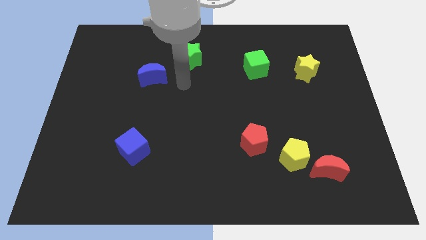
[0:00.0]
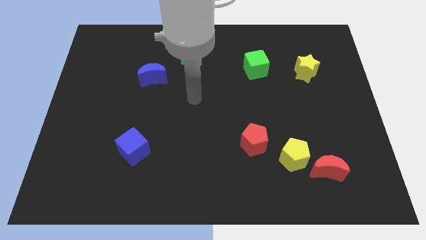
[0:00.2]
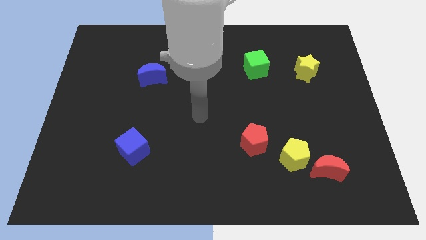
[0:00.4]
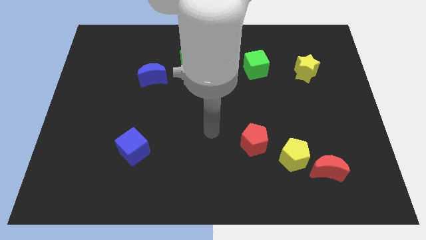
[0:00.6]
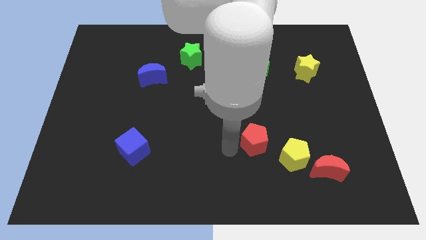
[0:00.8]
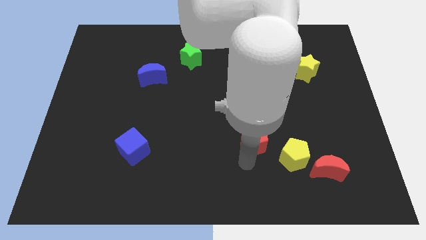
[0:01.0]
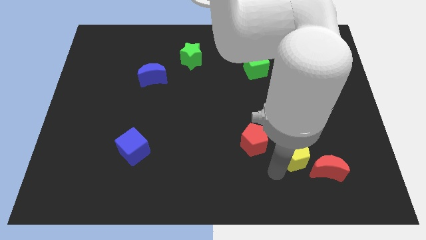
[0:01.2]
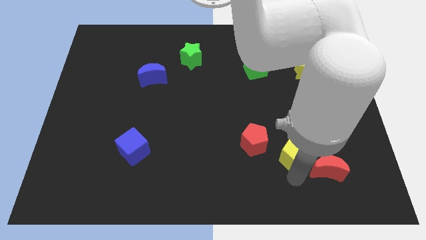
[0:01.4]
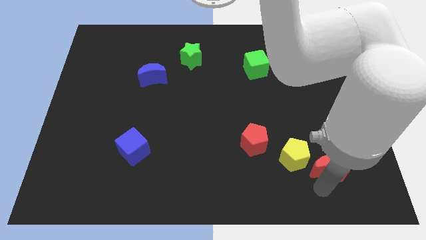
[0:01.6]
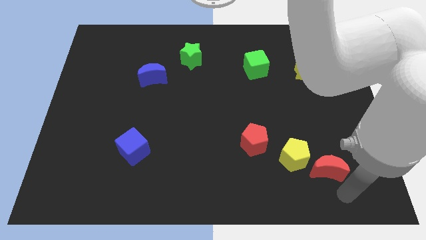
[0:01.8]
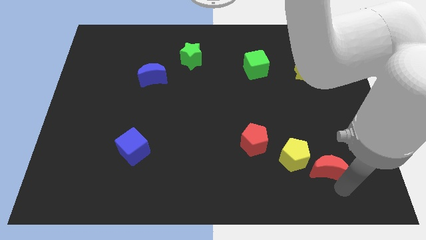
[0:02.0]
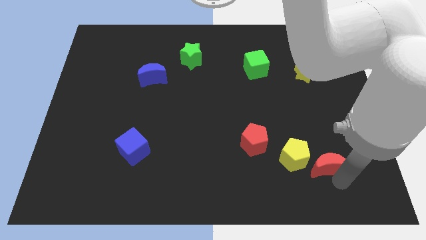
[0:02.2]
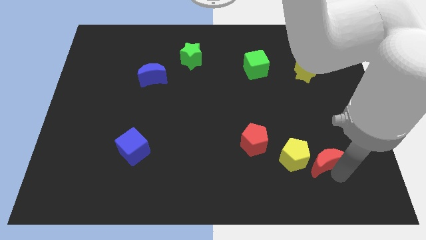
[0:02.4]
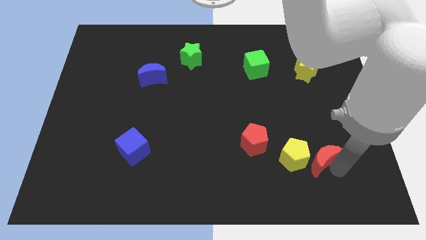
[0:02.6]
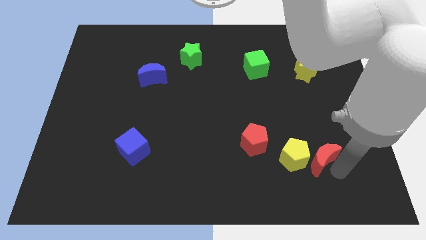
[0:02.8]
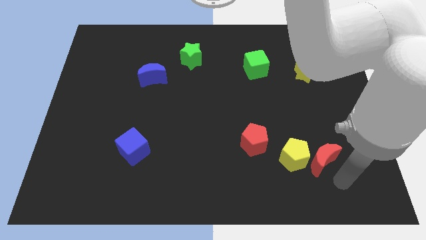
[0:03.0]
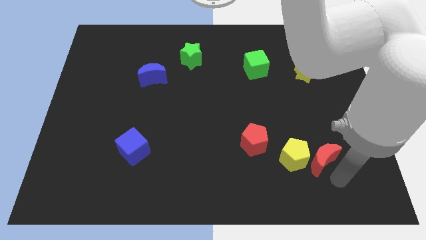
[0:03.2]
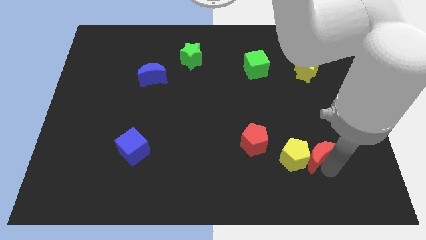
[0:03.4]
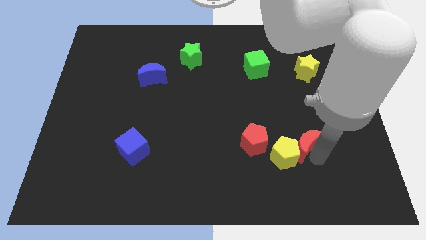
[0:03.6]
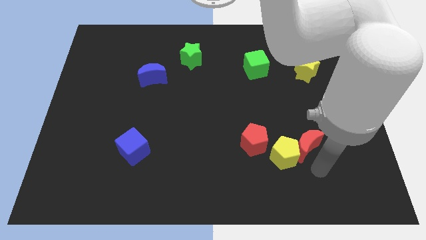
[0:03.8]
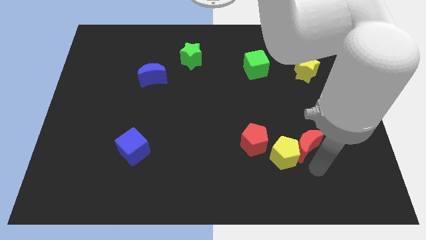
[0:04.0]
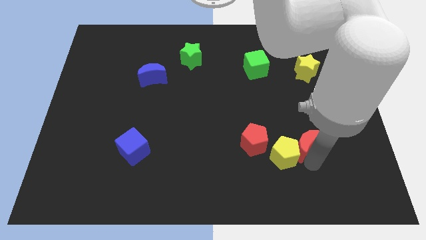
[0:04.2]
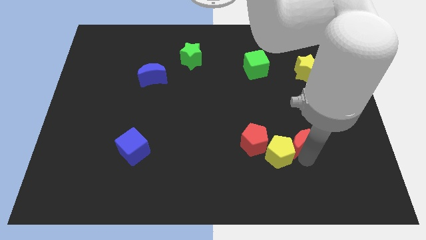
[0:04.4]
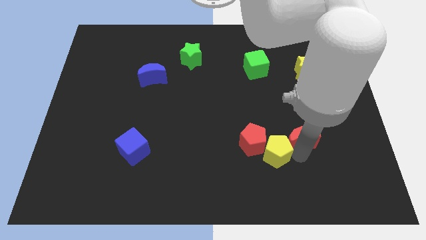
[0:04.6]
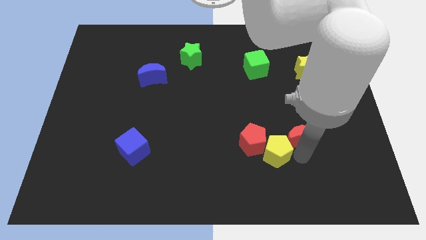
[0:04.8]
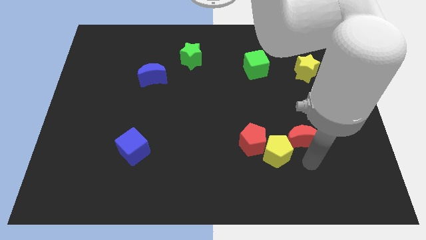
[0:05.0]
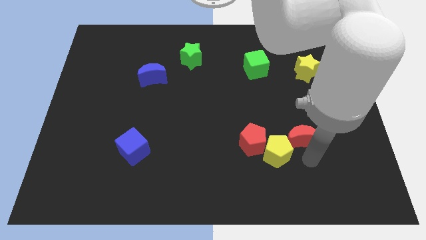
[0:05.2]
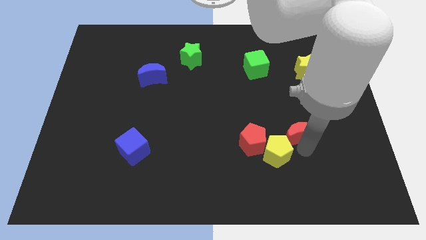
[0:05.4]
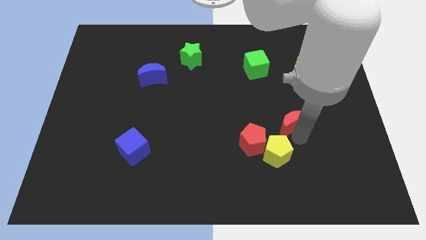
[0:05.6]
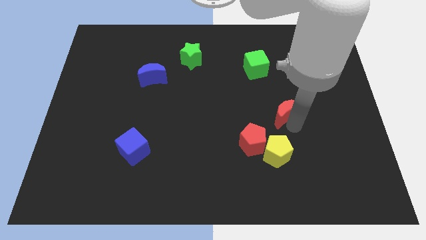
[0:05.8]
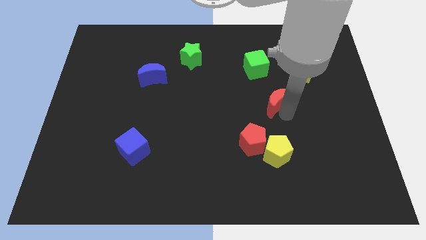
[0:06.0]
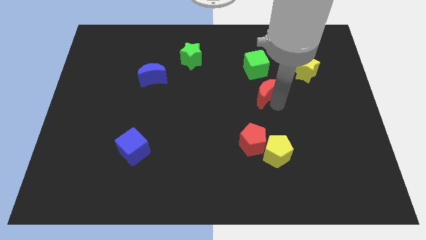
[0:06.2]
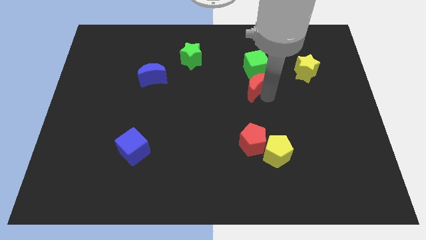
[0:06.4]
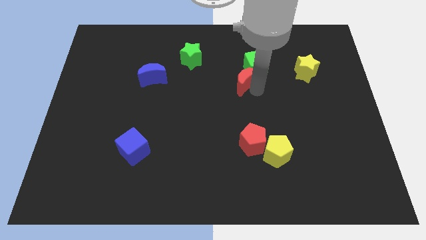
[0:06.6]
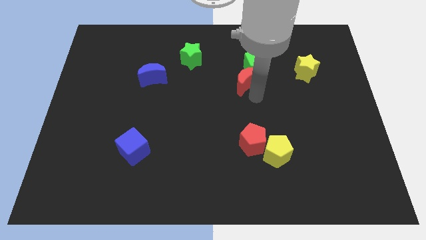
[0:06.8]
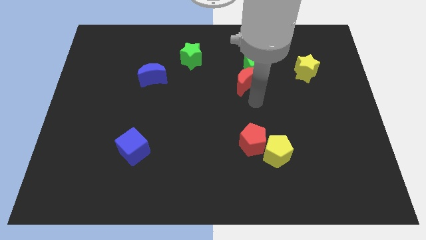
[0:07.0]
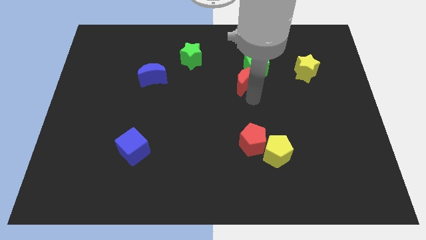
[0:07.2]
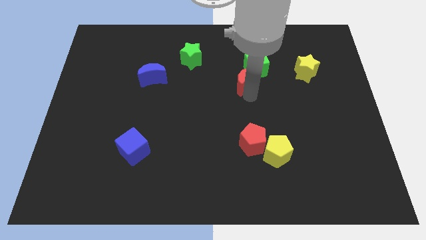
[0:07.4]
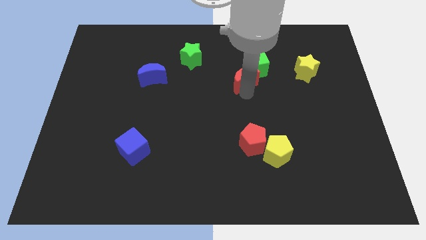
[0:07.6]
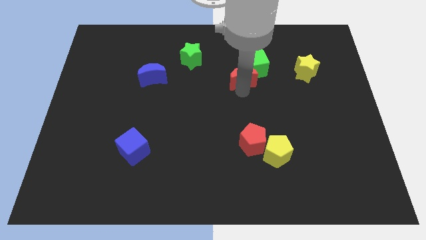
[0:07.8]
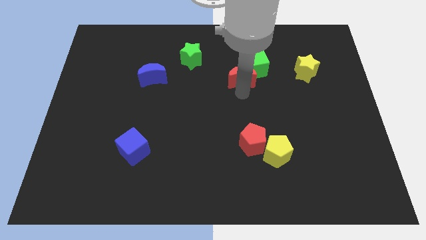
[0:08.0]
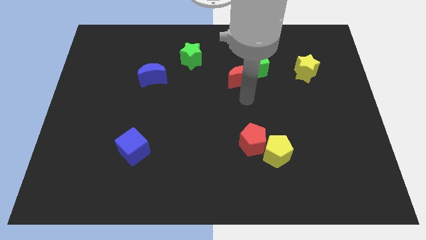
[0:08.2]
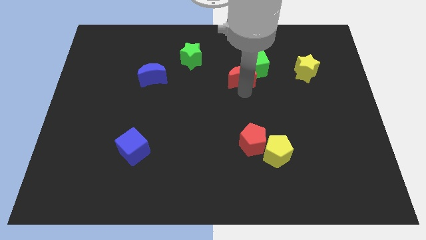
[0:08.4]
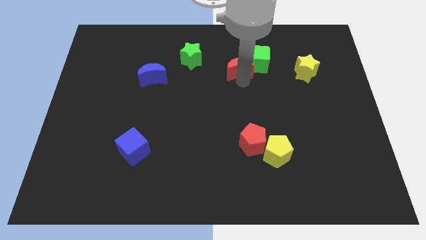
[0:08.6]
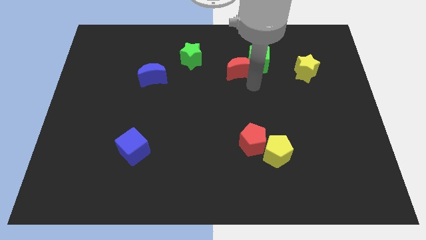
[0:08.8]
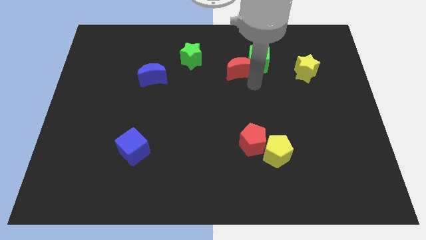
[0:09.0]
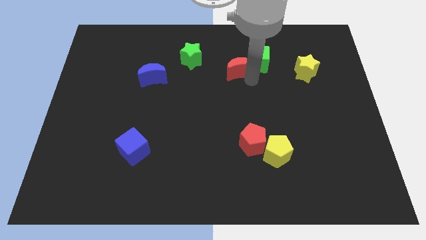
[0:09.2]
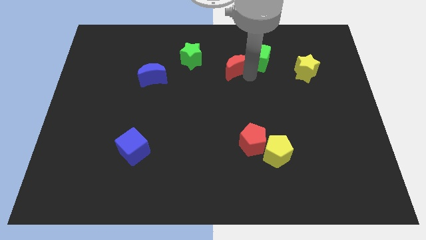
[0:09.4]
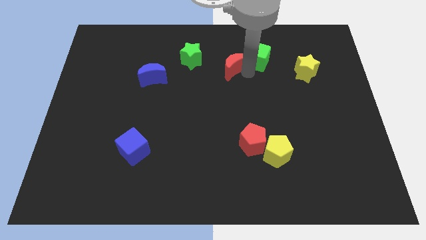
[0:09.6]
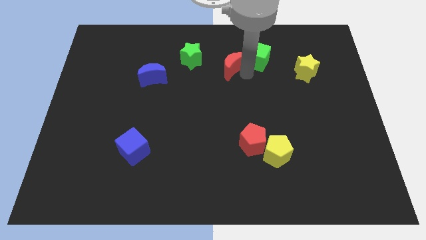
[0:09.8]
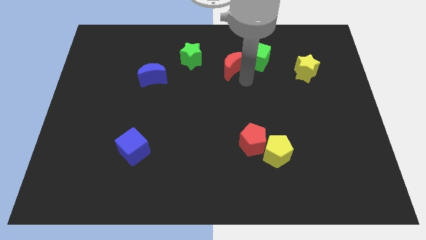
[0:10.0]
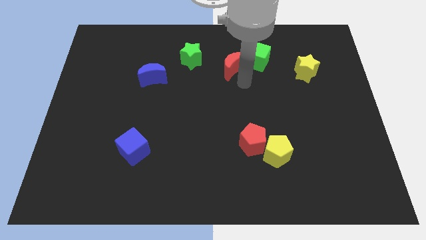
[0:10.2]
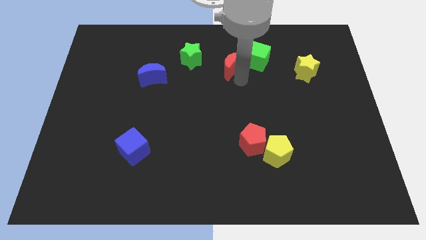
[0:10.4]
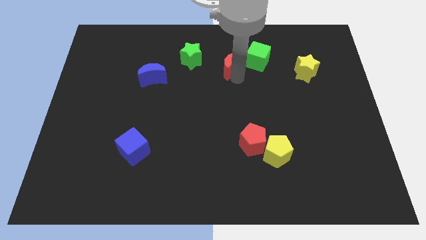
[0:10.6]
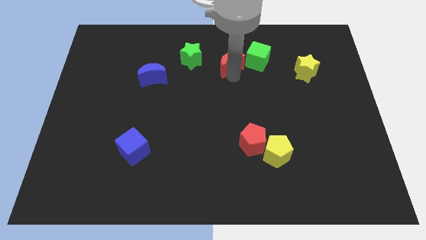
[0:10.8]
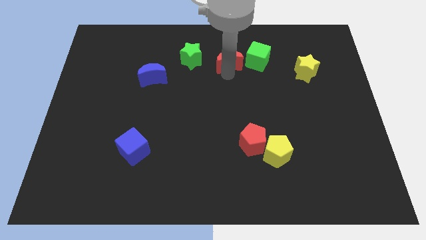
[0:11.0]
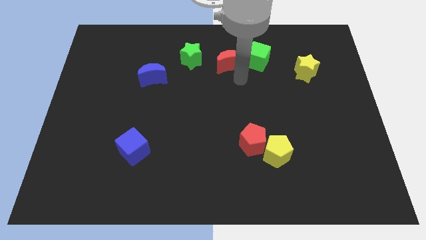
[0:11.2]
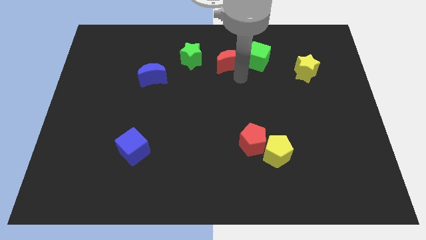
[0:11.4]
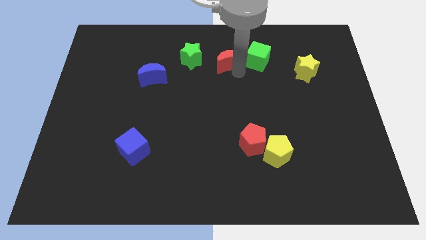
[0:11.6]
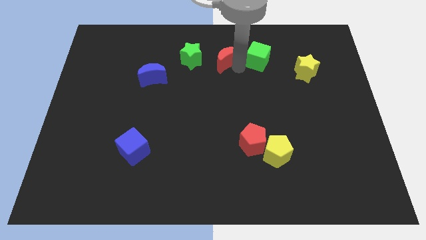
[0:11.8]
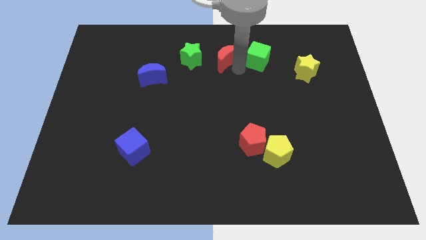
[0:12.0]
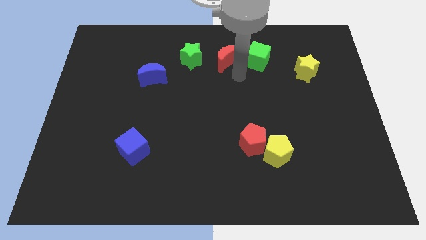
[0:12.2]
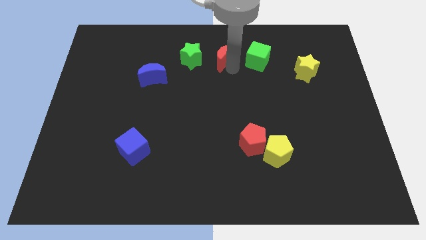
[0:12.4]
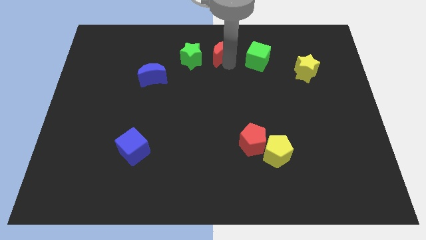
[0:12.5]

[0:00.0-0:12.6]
put the red moon to the towards your base
